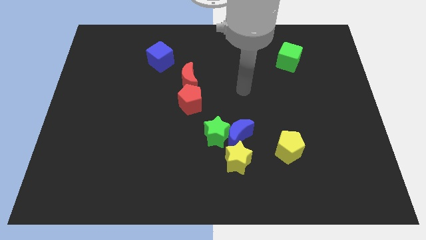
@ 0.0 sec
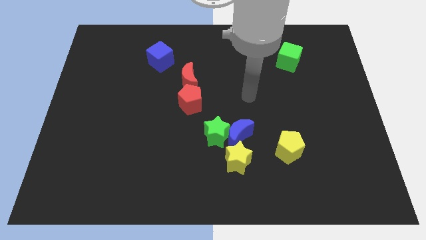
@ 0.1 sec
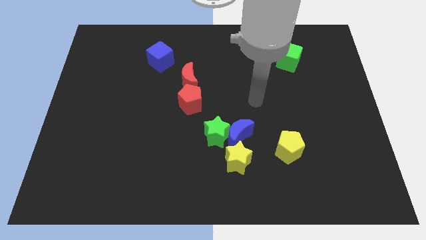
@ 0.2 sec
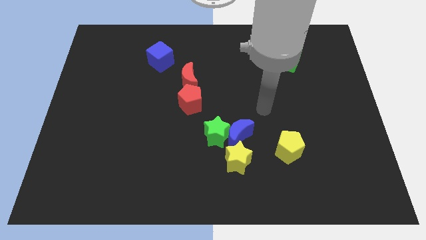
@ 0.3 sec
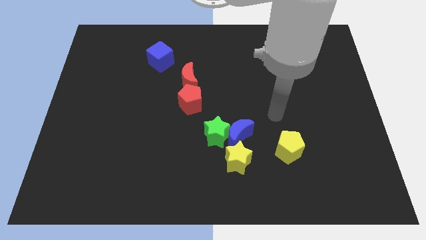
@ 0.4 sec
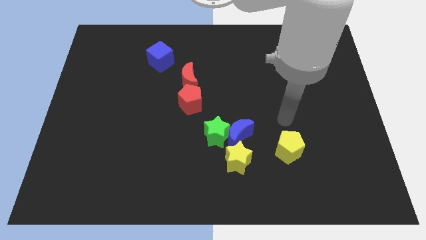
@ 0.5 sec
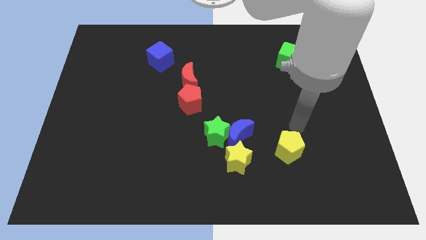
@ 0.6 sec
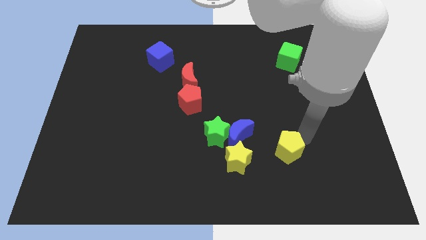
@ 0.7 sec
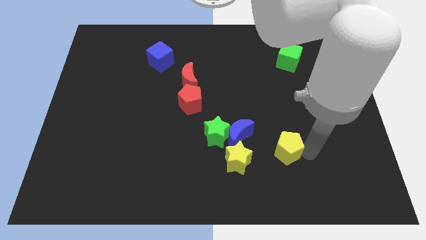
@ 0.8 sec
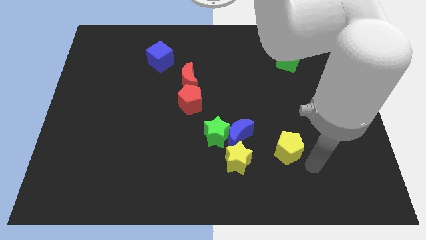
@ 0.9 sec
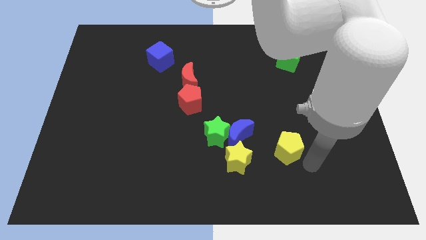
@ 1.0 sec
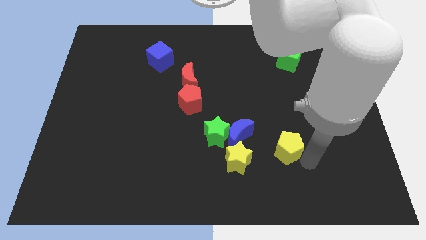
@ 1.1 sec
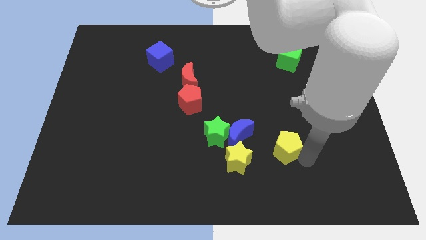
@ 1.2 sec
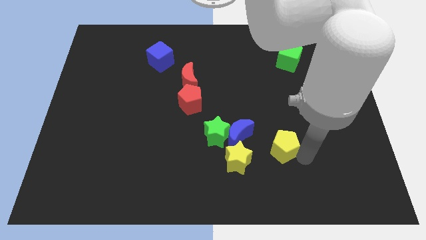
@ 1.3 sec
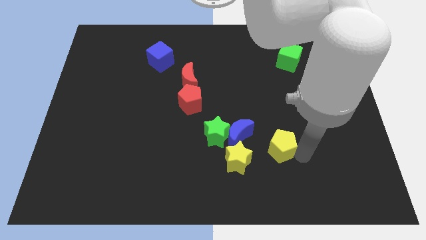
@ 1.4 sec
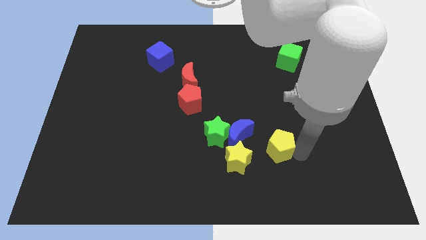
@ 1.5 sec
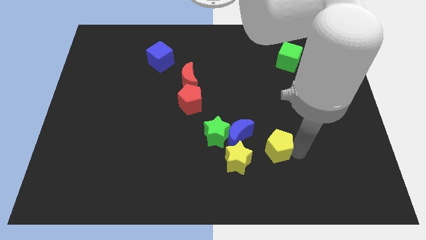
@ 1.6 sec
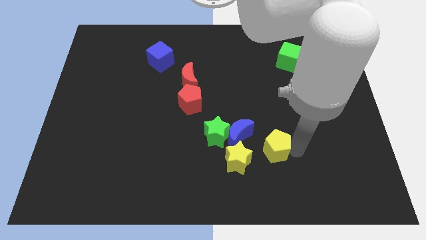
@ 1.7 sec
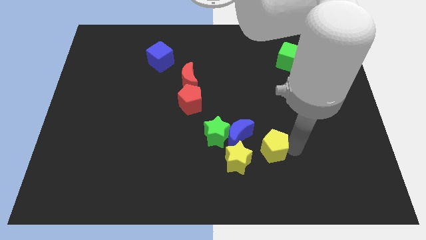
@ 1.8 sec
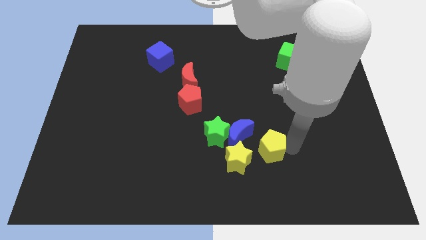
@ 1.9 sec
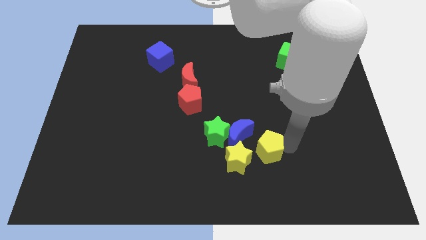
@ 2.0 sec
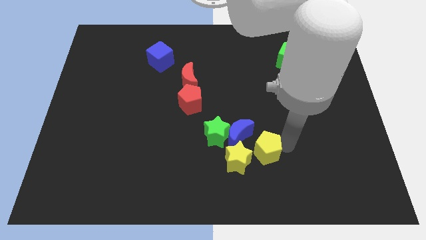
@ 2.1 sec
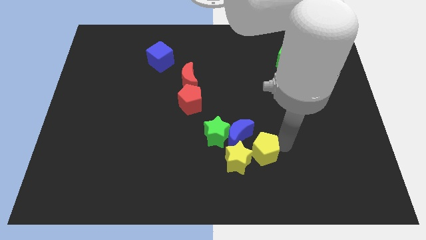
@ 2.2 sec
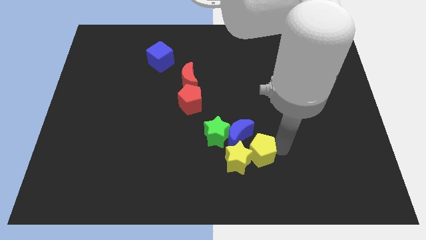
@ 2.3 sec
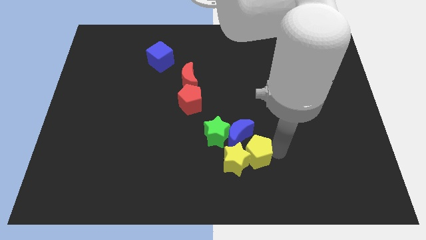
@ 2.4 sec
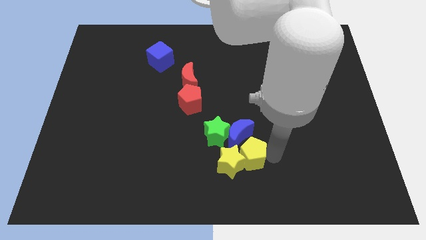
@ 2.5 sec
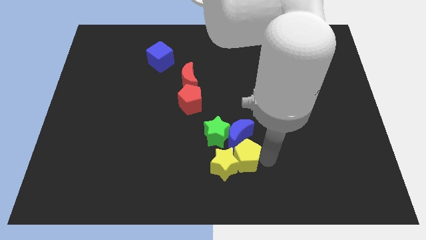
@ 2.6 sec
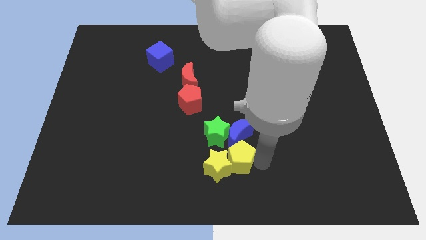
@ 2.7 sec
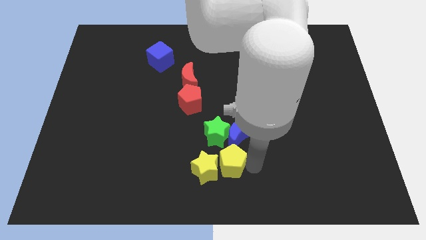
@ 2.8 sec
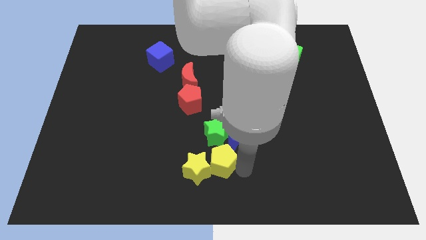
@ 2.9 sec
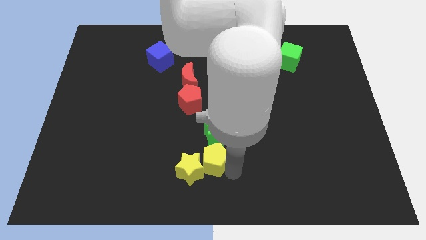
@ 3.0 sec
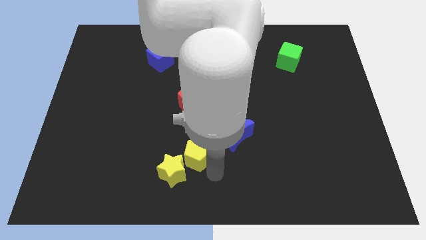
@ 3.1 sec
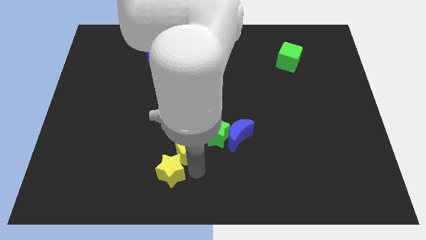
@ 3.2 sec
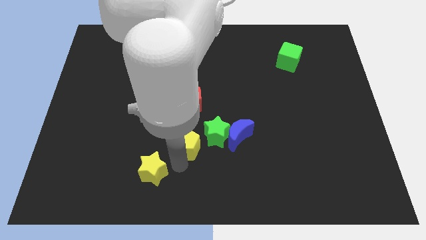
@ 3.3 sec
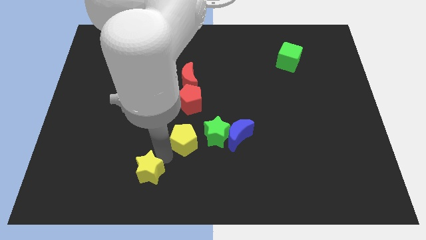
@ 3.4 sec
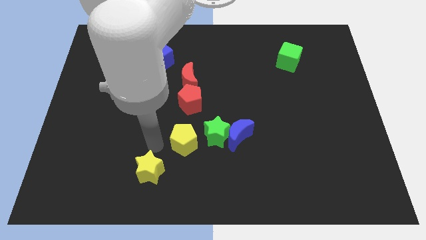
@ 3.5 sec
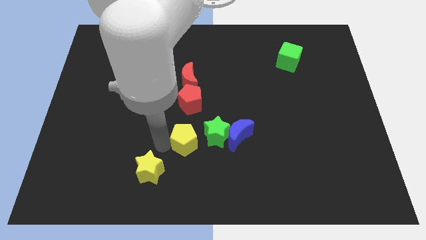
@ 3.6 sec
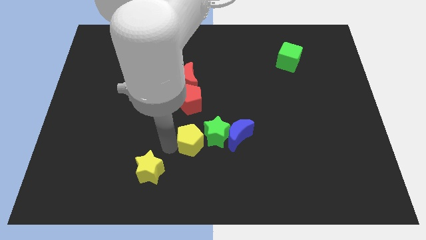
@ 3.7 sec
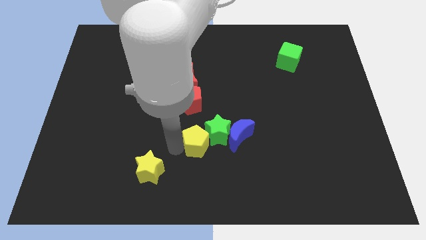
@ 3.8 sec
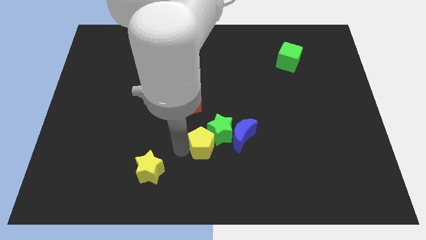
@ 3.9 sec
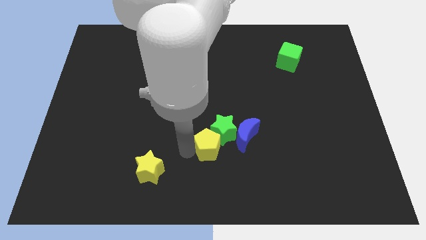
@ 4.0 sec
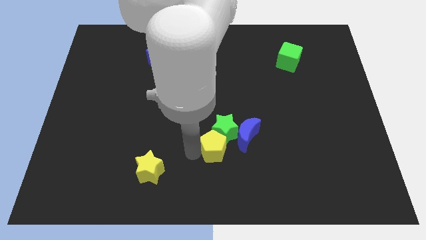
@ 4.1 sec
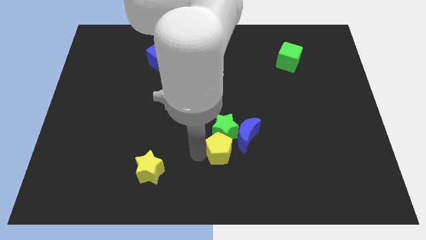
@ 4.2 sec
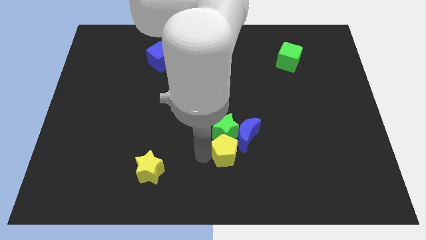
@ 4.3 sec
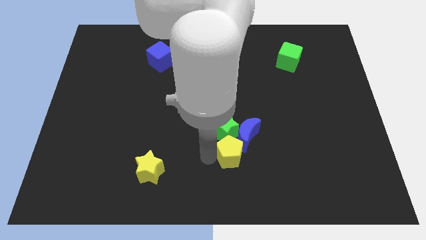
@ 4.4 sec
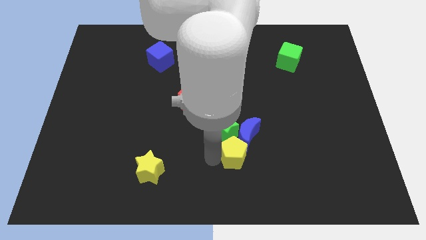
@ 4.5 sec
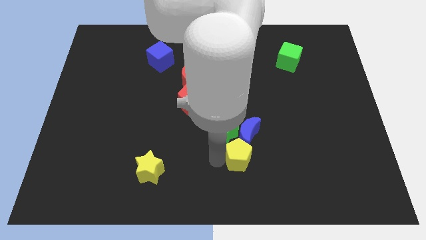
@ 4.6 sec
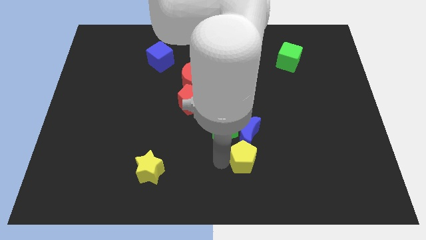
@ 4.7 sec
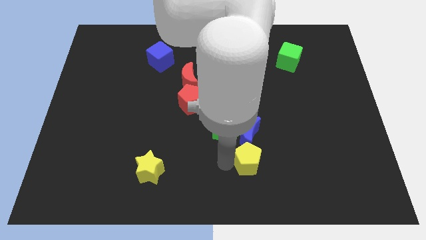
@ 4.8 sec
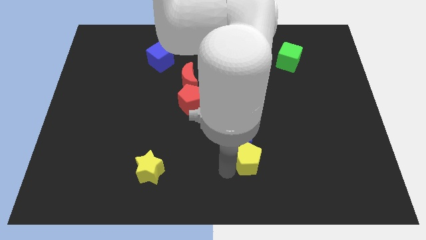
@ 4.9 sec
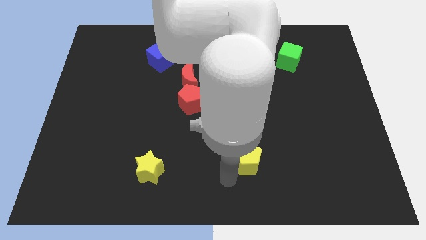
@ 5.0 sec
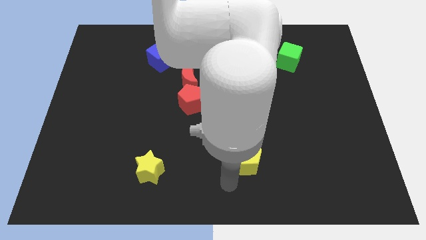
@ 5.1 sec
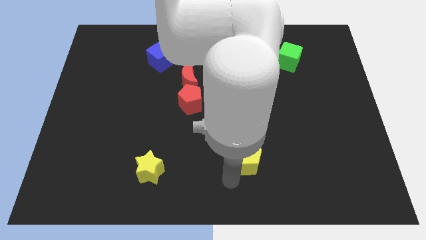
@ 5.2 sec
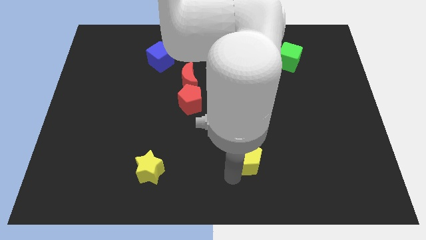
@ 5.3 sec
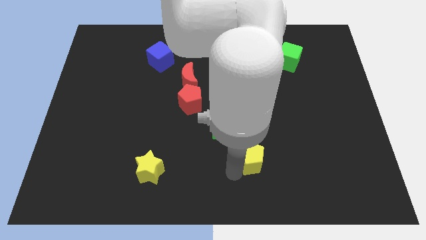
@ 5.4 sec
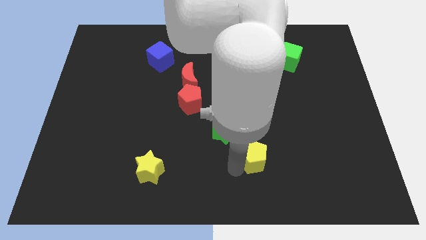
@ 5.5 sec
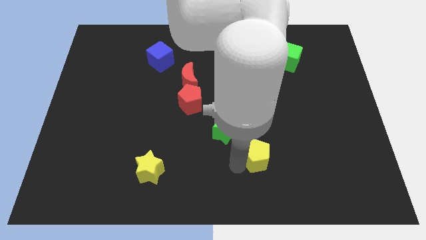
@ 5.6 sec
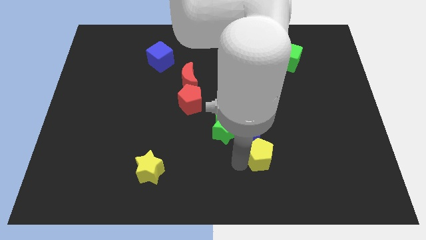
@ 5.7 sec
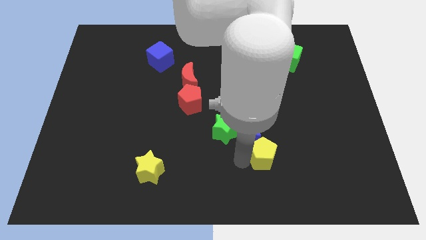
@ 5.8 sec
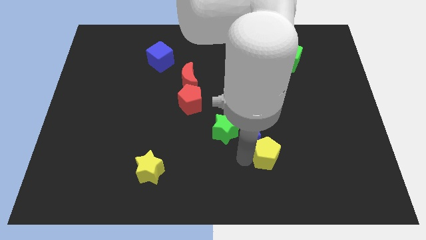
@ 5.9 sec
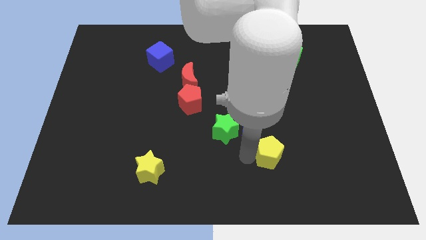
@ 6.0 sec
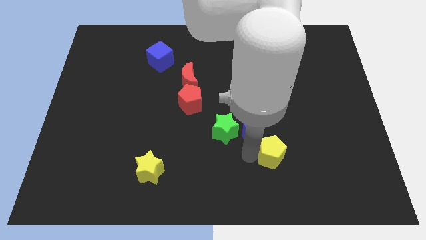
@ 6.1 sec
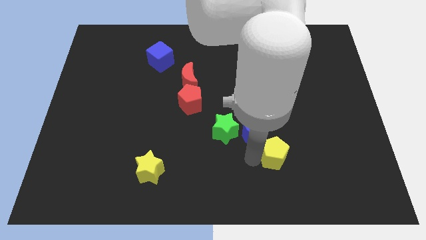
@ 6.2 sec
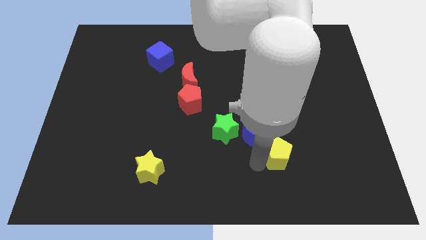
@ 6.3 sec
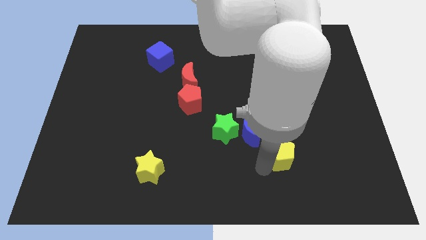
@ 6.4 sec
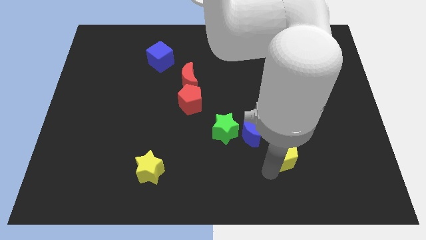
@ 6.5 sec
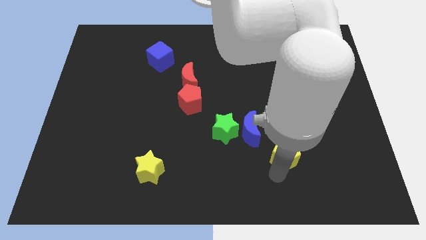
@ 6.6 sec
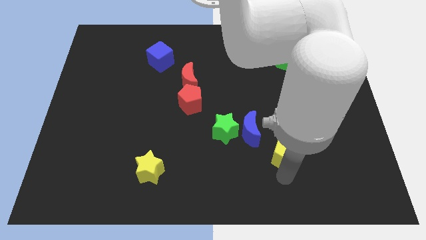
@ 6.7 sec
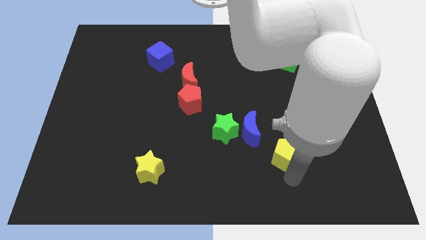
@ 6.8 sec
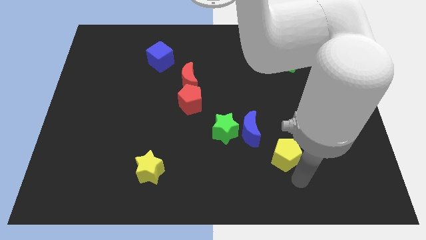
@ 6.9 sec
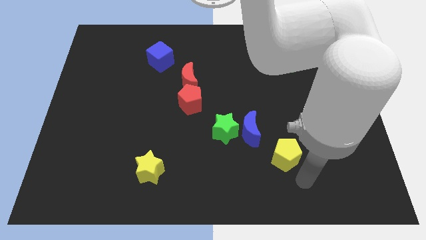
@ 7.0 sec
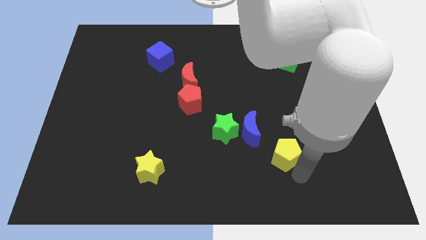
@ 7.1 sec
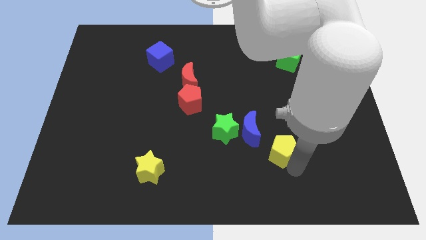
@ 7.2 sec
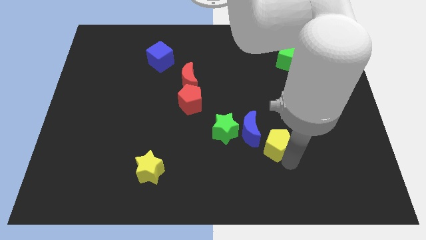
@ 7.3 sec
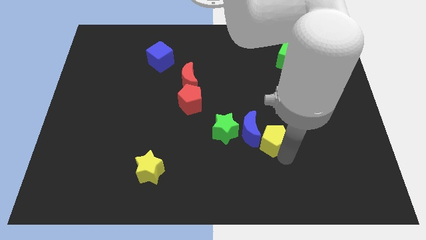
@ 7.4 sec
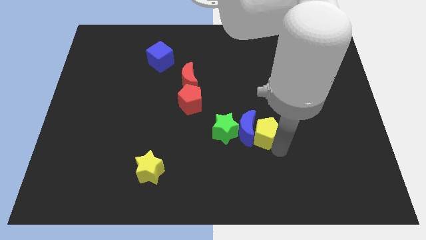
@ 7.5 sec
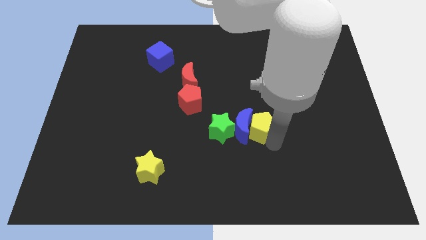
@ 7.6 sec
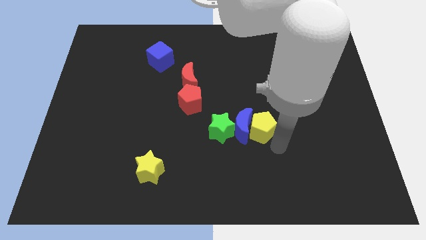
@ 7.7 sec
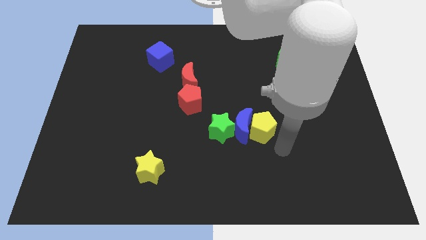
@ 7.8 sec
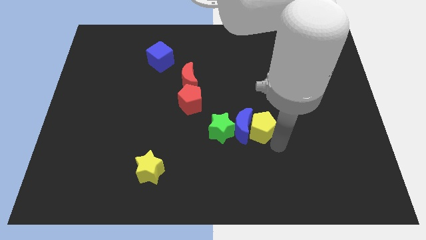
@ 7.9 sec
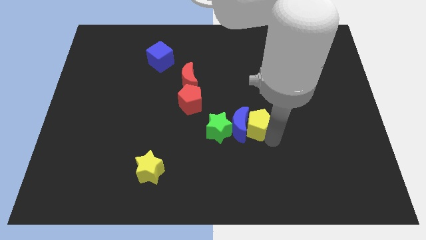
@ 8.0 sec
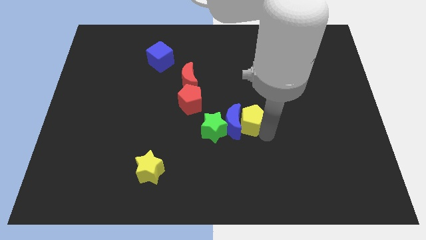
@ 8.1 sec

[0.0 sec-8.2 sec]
slide the yellow pentagon to the top right of the green star
